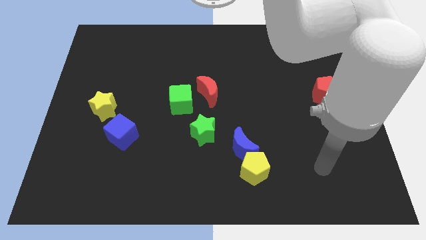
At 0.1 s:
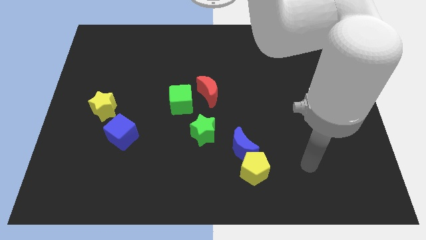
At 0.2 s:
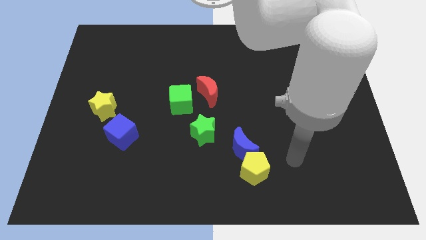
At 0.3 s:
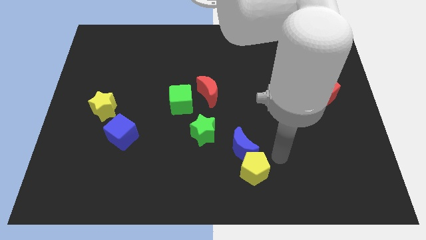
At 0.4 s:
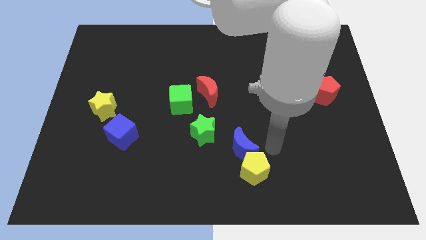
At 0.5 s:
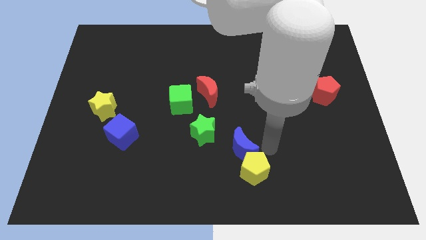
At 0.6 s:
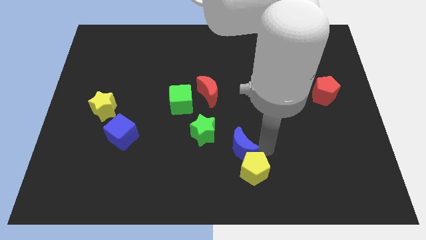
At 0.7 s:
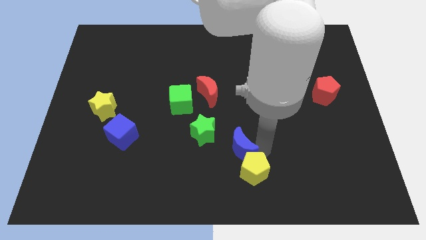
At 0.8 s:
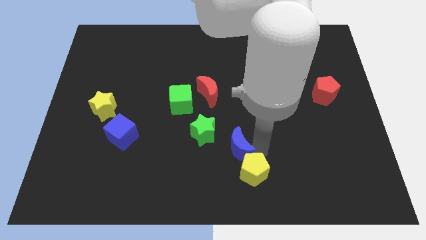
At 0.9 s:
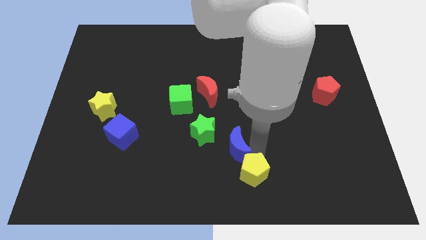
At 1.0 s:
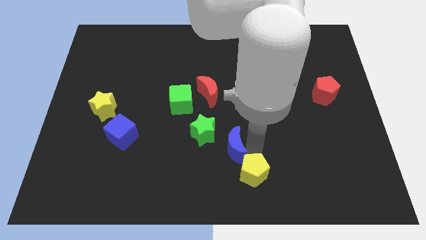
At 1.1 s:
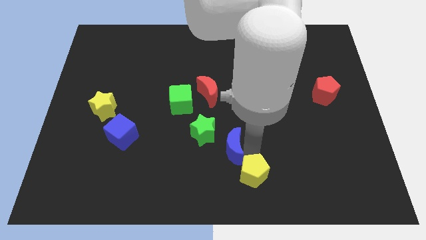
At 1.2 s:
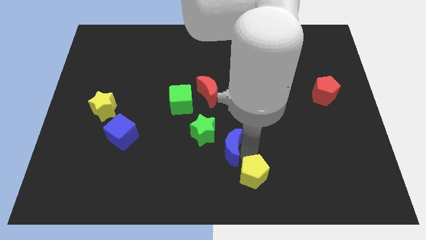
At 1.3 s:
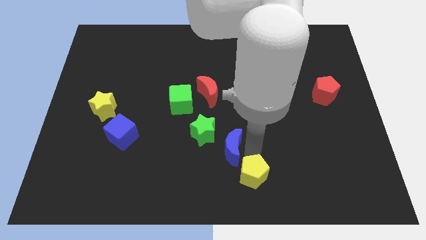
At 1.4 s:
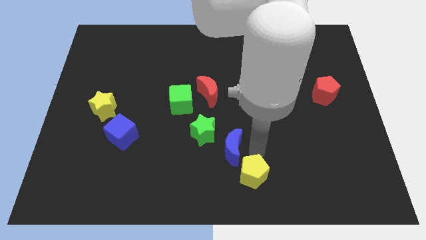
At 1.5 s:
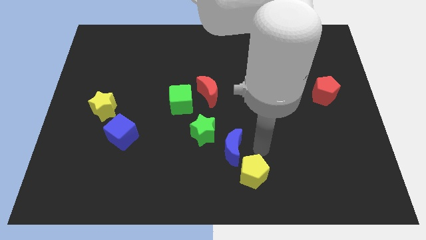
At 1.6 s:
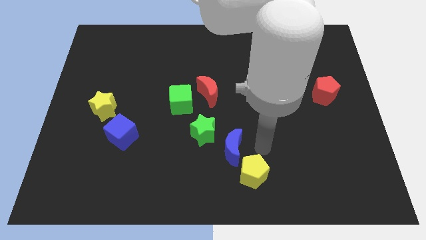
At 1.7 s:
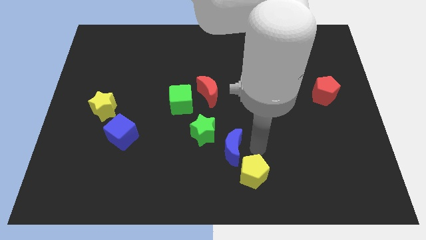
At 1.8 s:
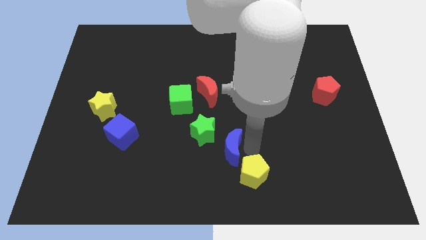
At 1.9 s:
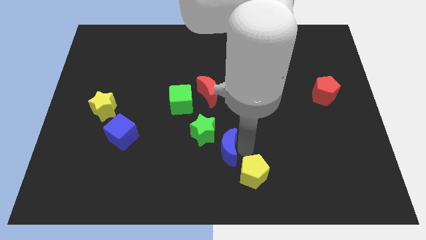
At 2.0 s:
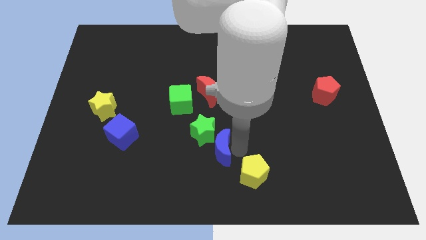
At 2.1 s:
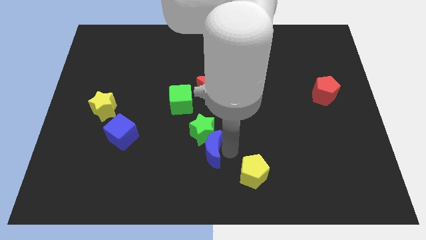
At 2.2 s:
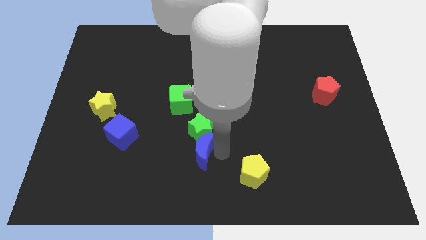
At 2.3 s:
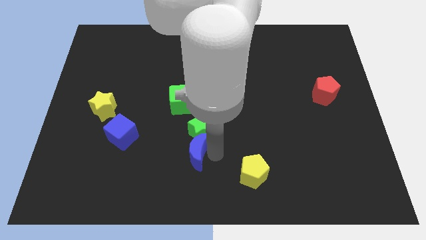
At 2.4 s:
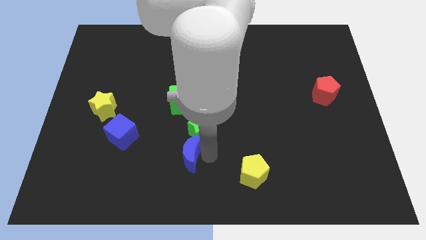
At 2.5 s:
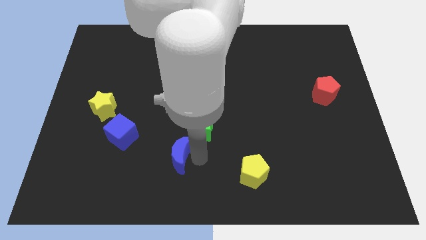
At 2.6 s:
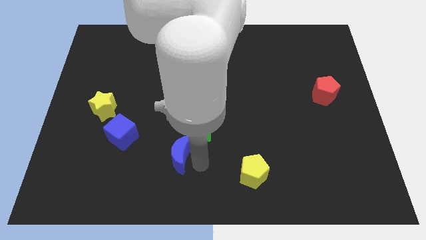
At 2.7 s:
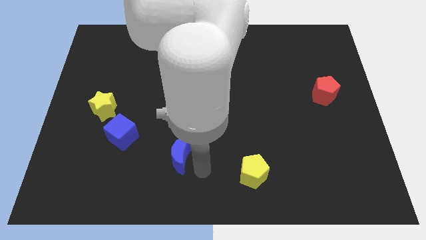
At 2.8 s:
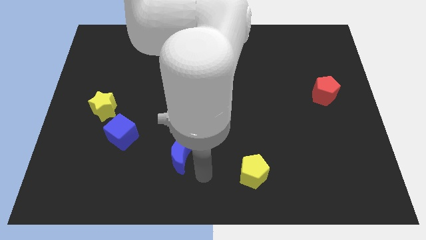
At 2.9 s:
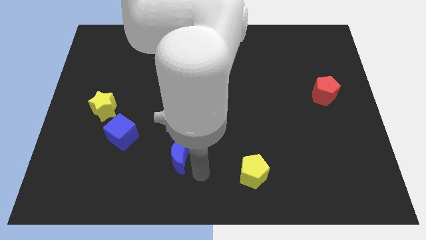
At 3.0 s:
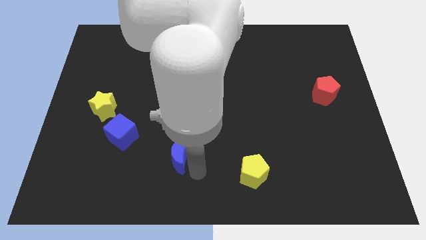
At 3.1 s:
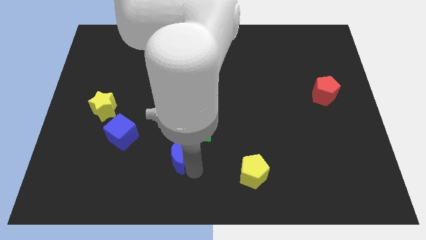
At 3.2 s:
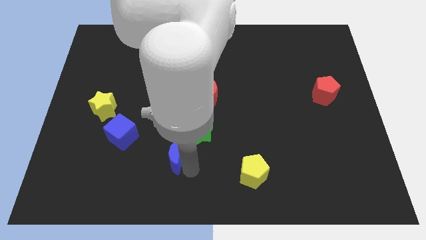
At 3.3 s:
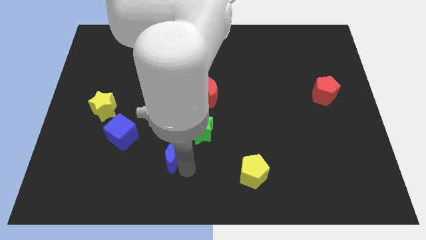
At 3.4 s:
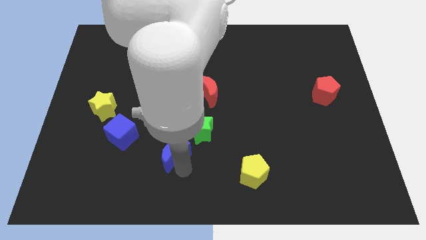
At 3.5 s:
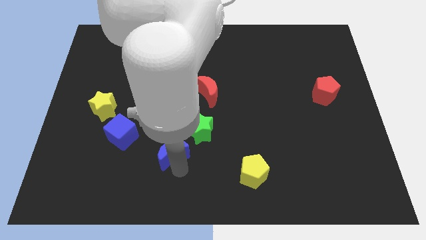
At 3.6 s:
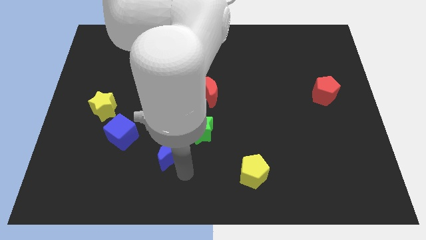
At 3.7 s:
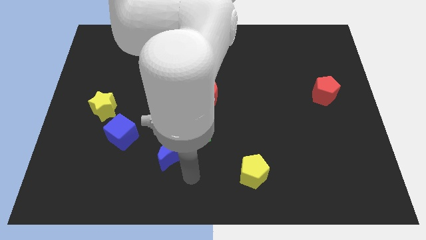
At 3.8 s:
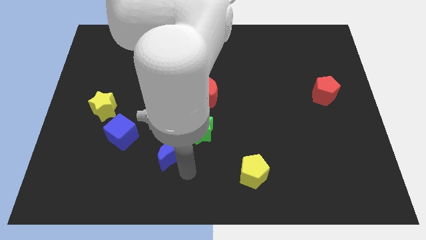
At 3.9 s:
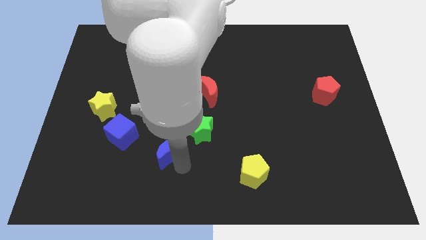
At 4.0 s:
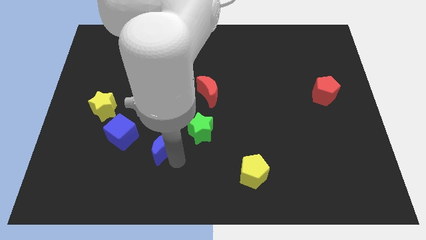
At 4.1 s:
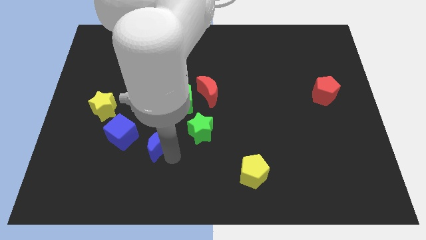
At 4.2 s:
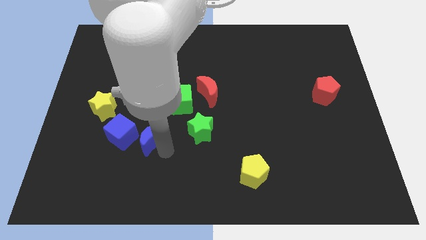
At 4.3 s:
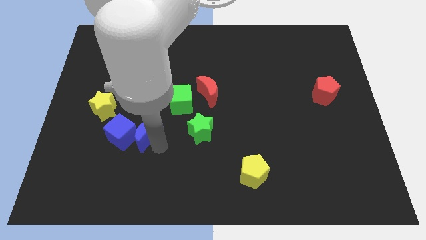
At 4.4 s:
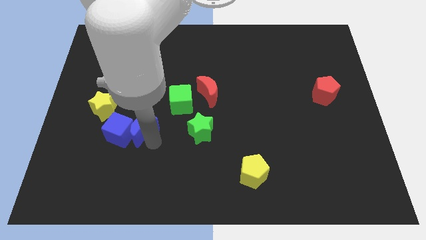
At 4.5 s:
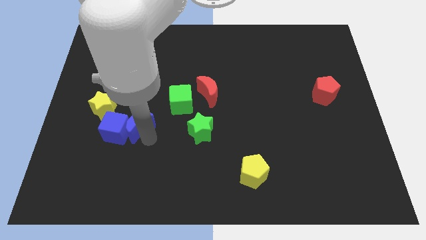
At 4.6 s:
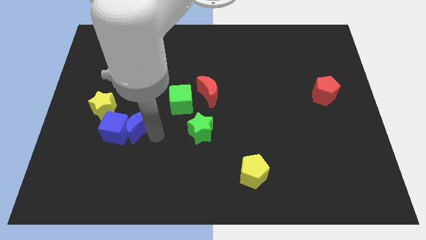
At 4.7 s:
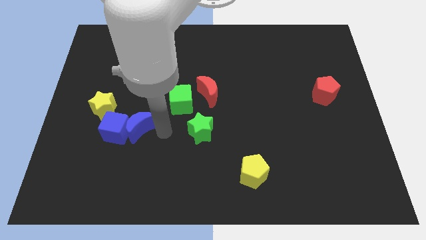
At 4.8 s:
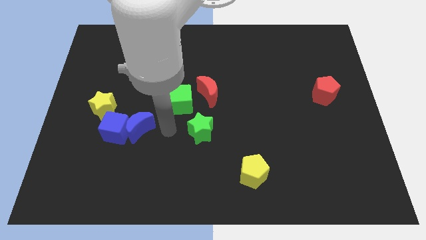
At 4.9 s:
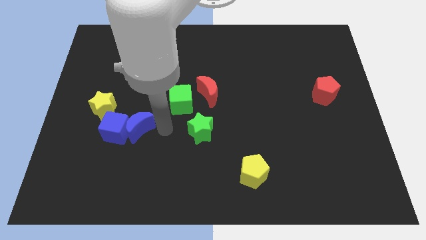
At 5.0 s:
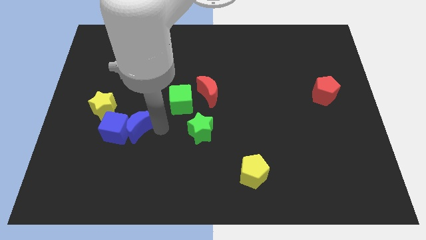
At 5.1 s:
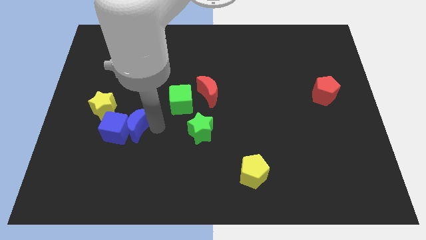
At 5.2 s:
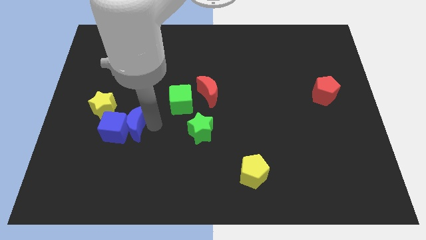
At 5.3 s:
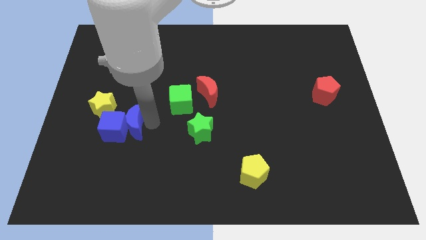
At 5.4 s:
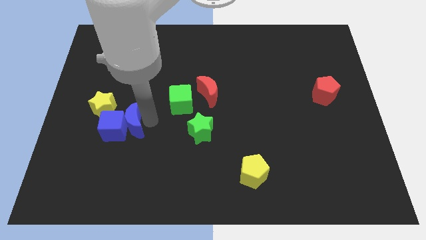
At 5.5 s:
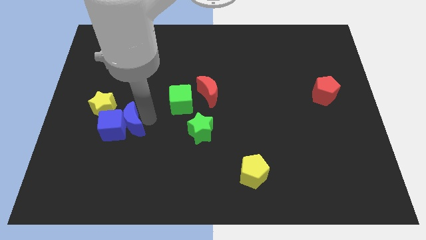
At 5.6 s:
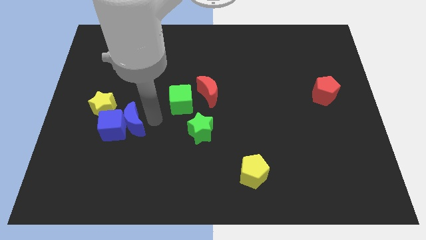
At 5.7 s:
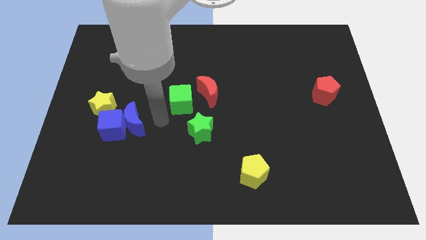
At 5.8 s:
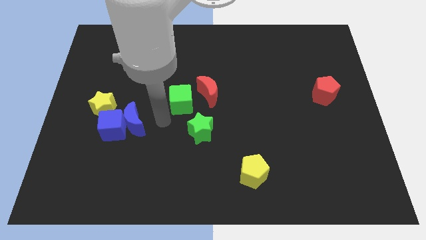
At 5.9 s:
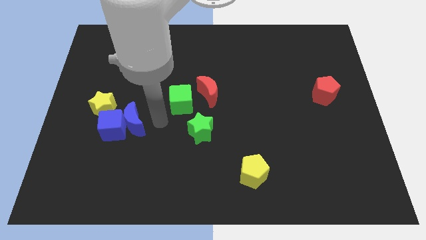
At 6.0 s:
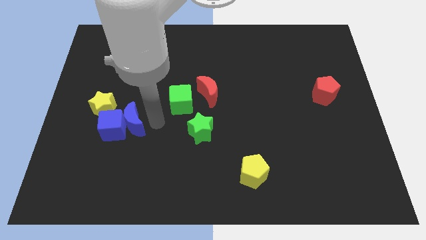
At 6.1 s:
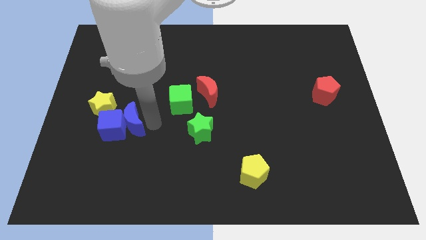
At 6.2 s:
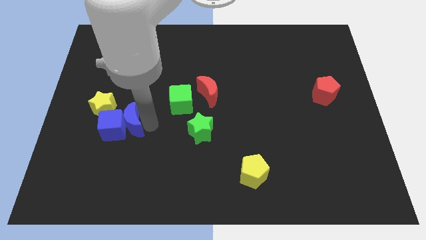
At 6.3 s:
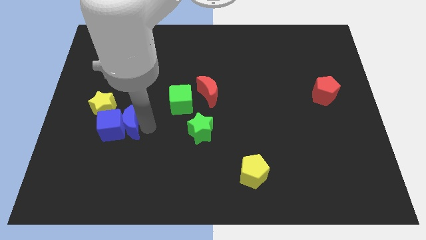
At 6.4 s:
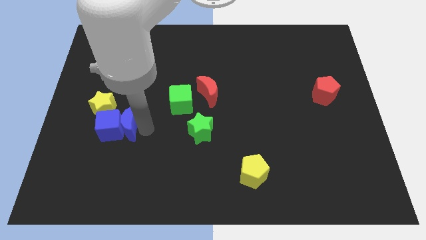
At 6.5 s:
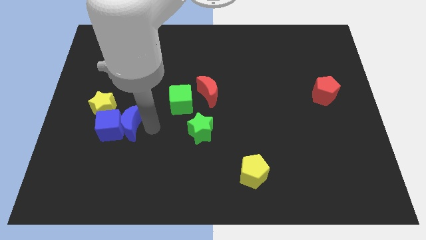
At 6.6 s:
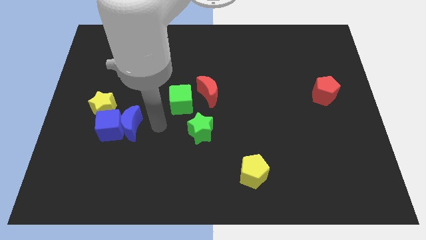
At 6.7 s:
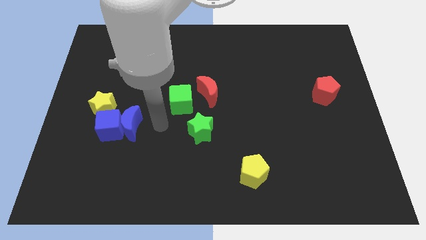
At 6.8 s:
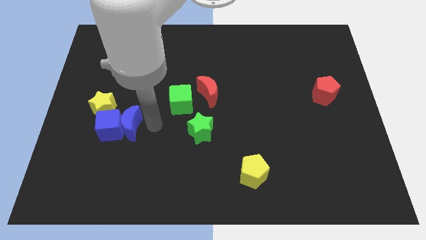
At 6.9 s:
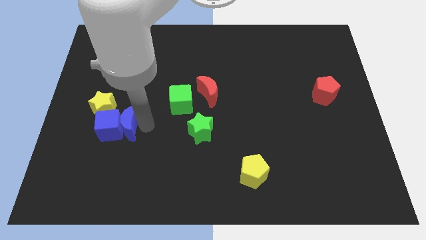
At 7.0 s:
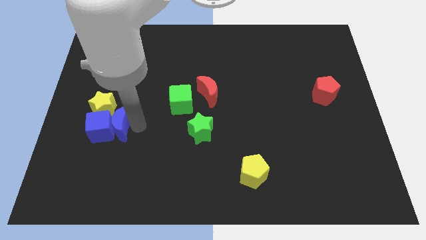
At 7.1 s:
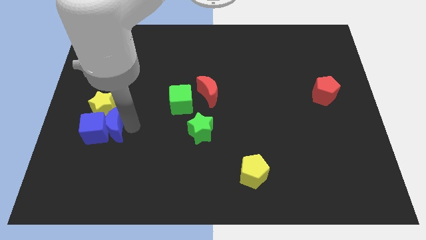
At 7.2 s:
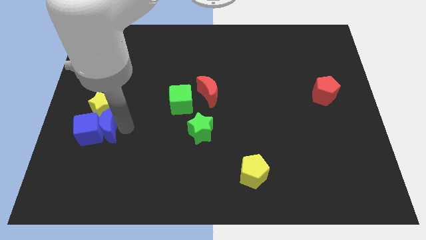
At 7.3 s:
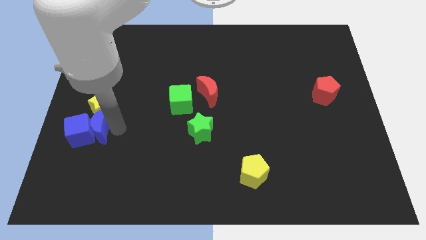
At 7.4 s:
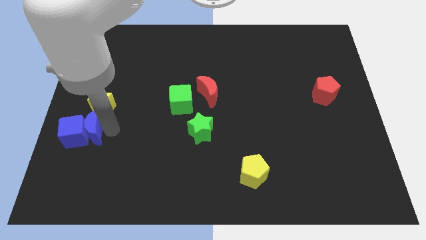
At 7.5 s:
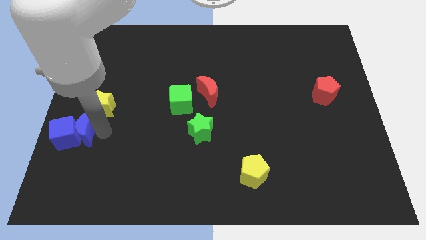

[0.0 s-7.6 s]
move the blue moon to the center left
